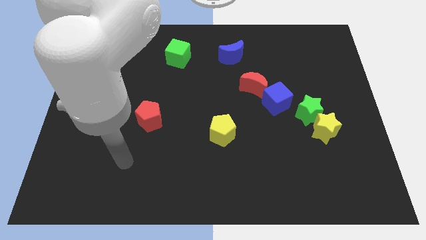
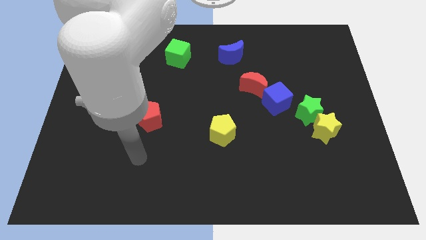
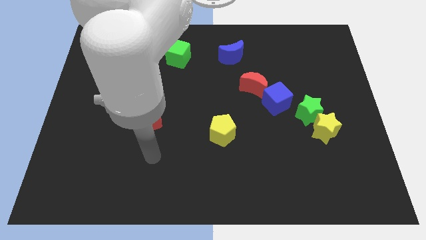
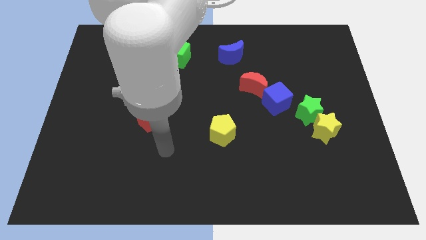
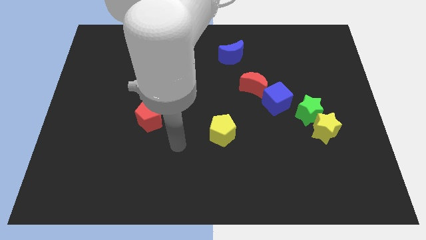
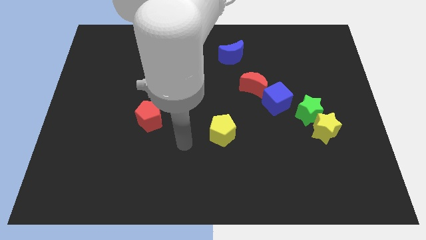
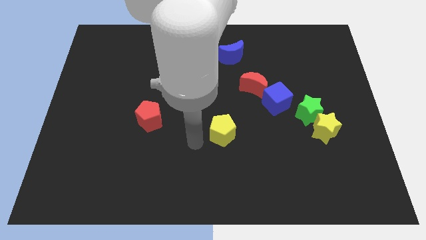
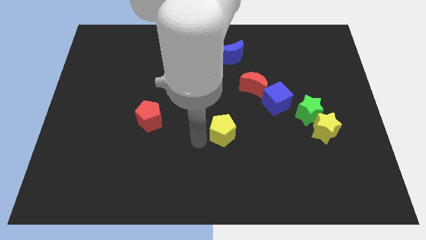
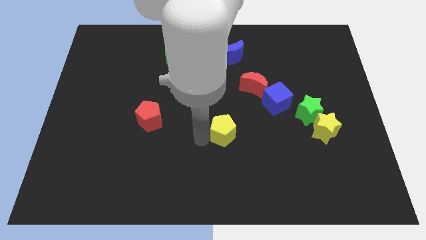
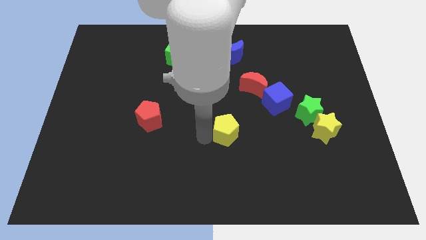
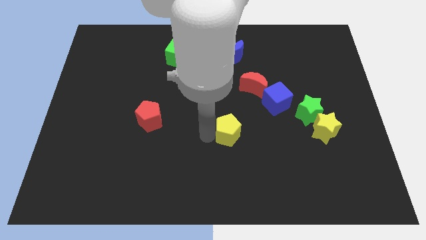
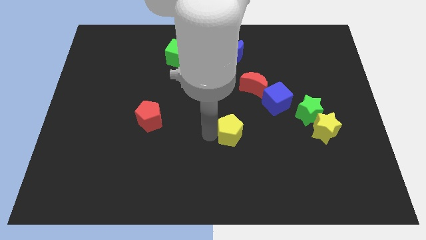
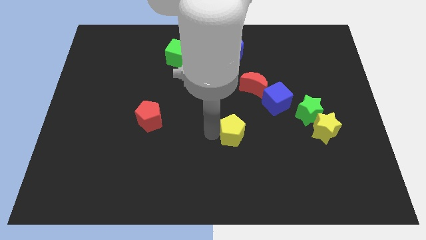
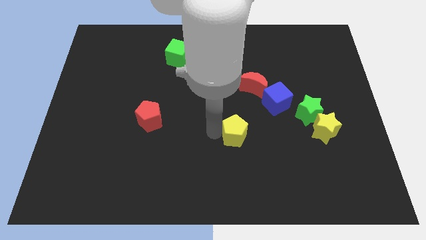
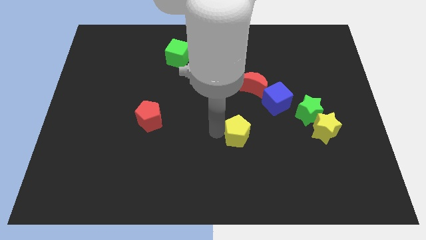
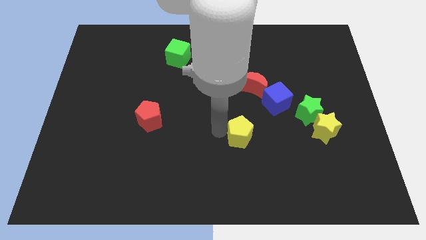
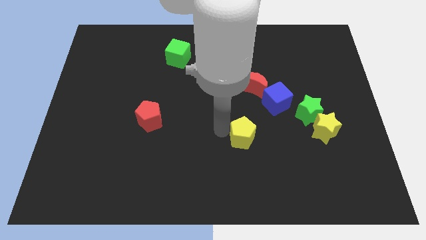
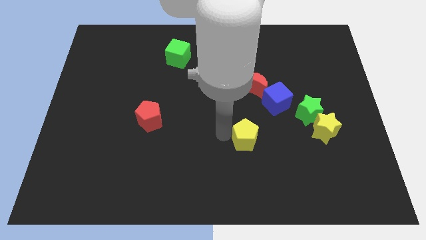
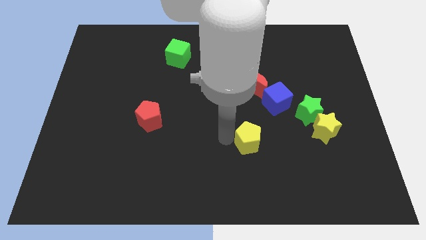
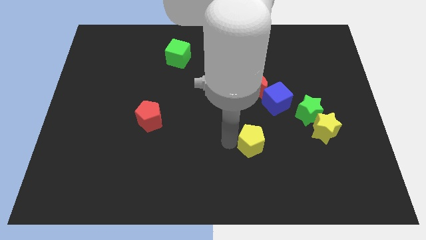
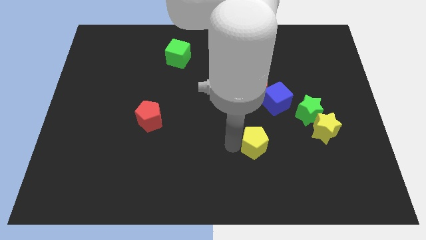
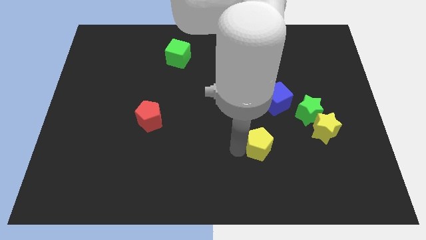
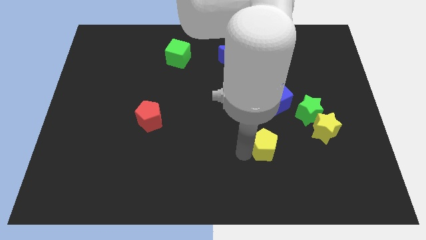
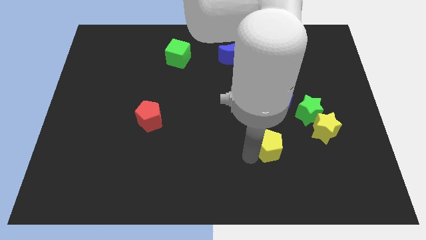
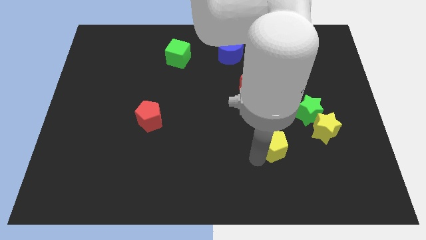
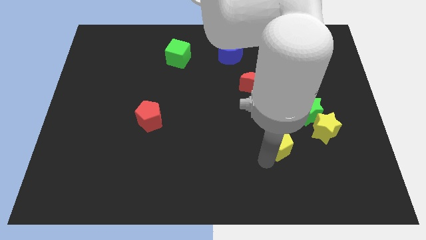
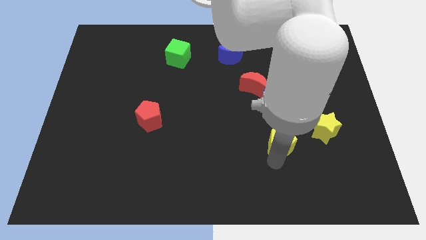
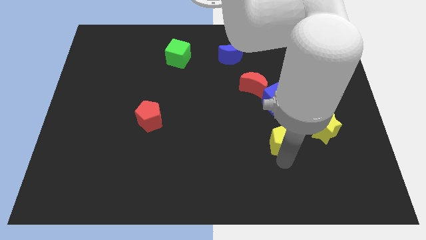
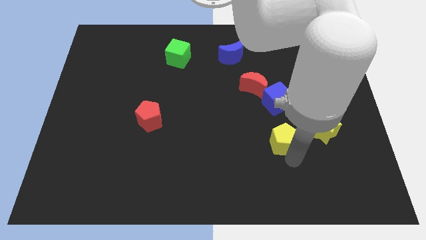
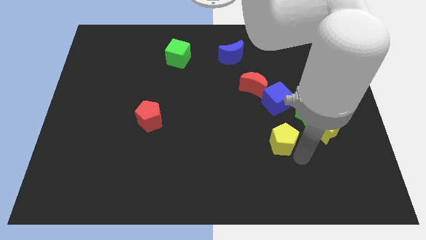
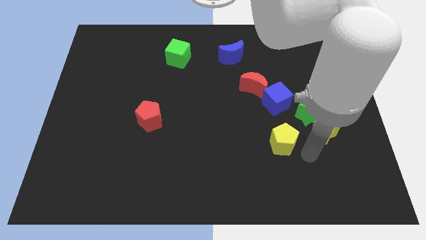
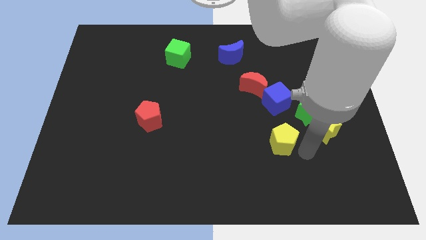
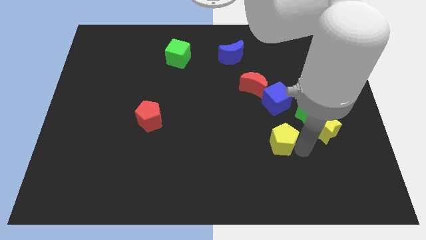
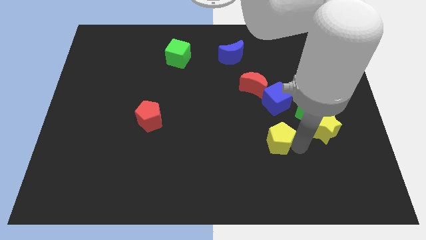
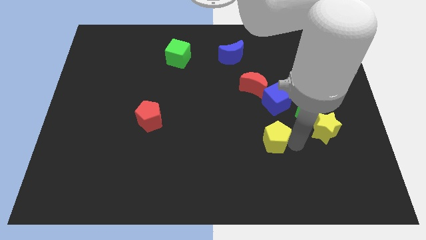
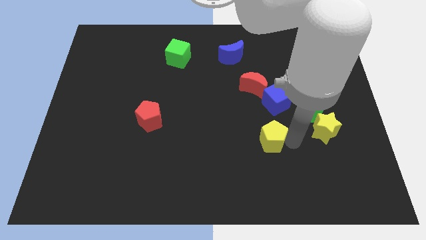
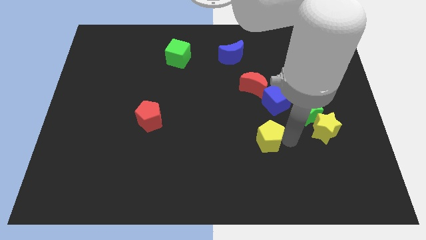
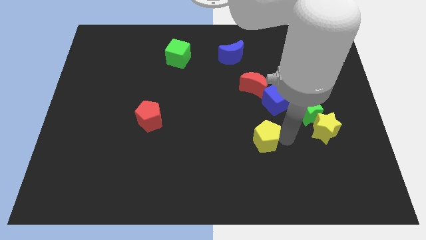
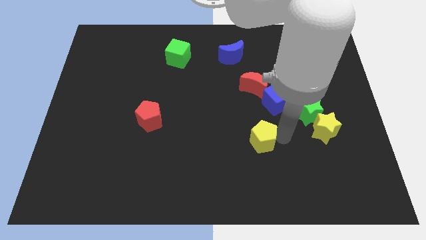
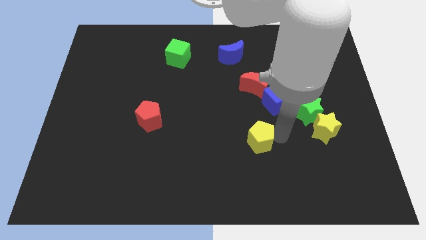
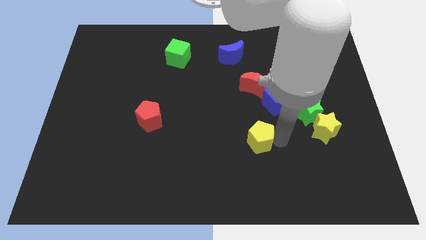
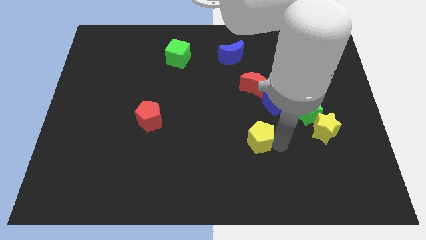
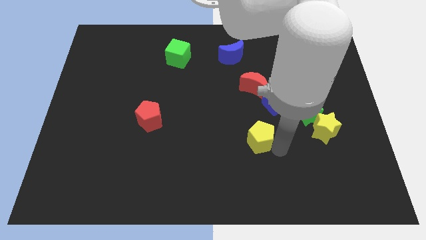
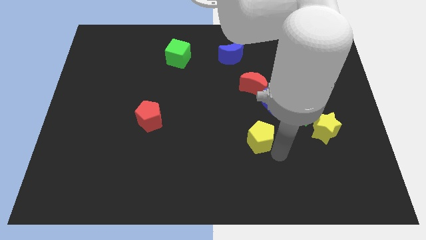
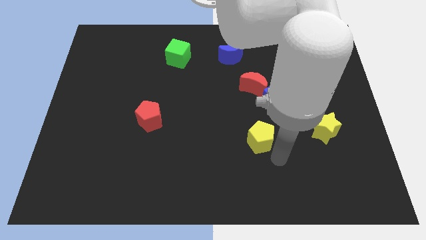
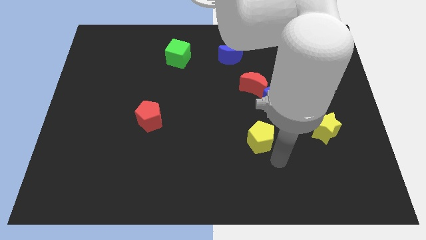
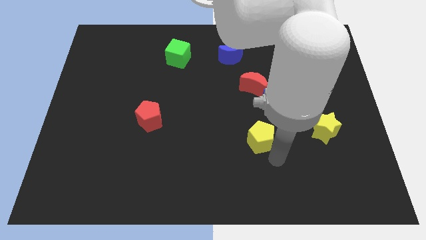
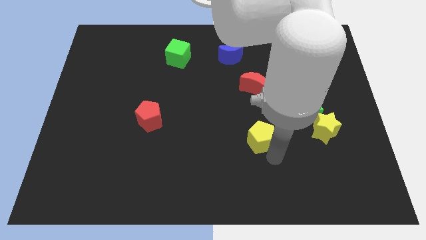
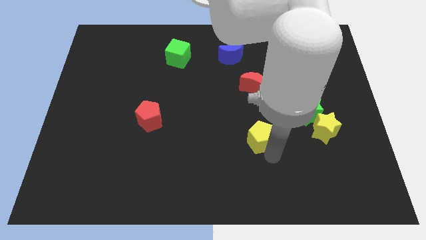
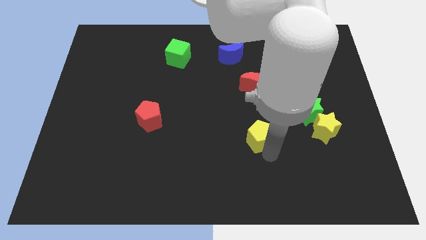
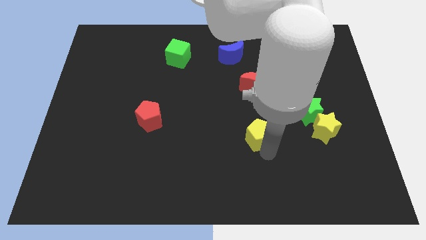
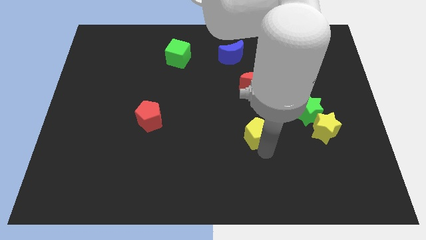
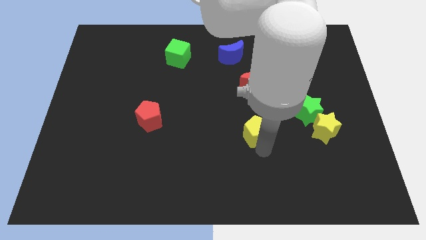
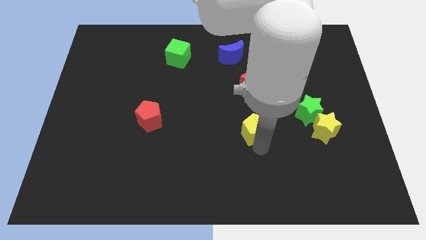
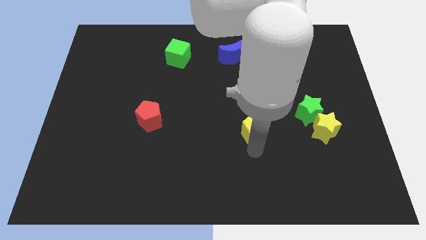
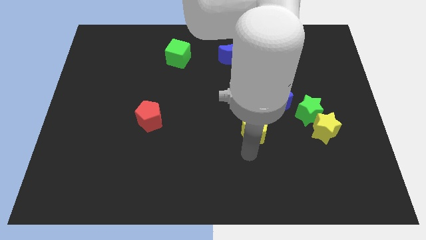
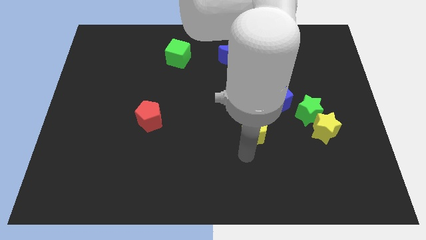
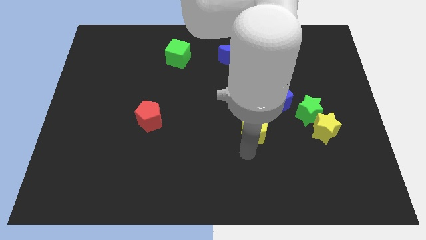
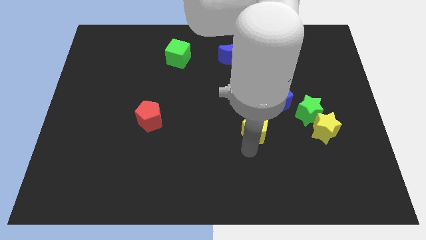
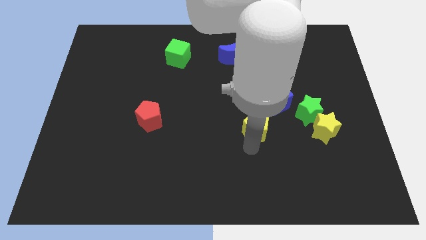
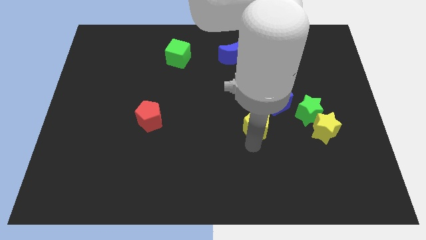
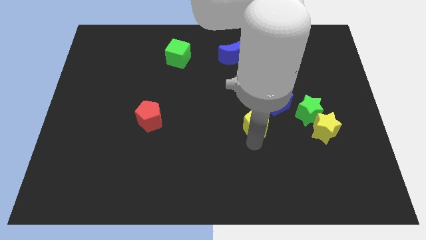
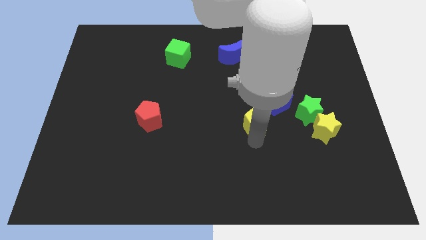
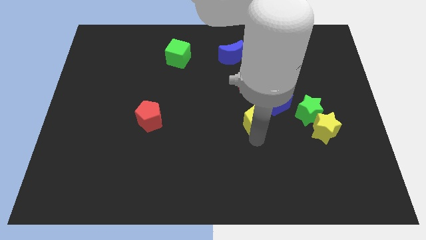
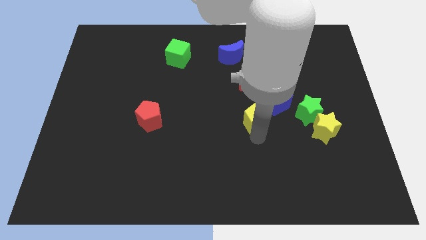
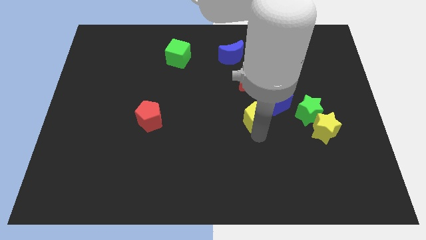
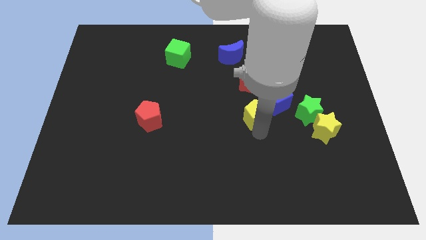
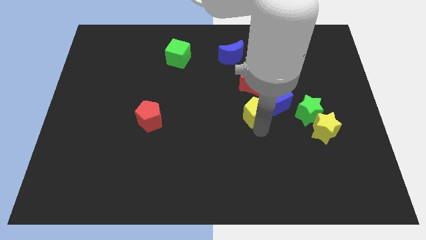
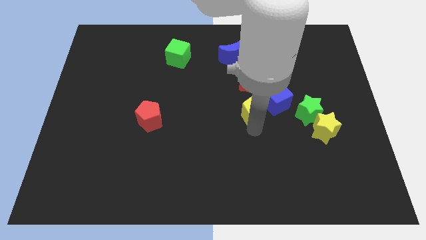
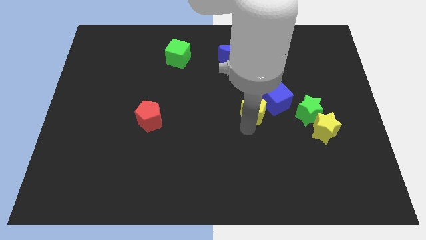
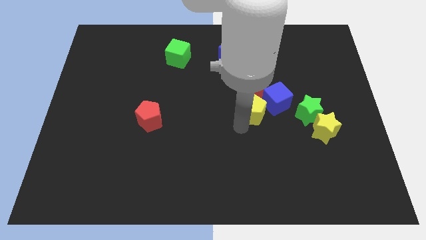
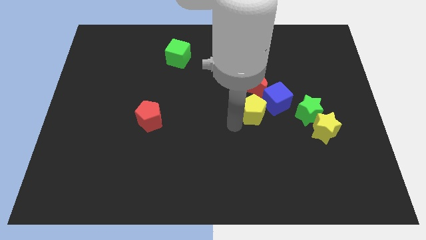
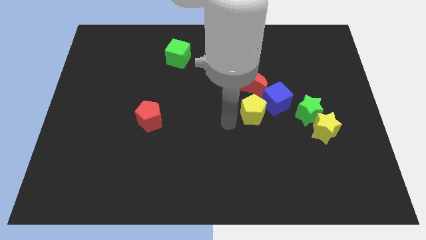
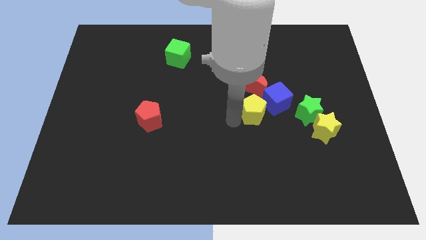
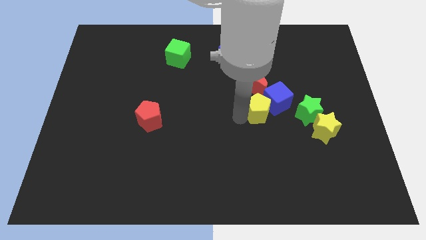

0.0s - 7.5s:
slide the yellow pentagon close to the blue cube
